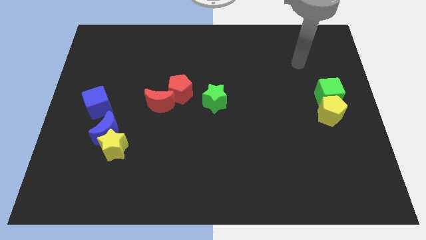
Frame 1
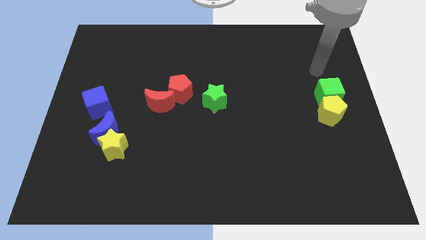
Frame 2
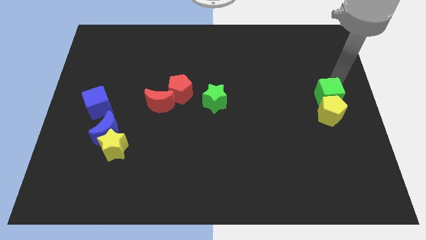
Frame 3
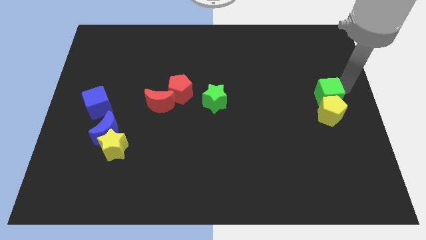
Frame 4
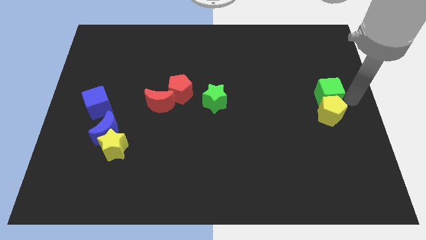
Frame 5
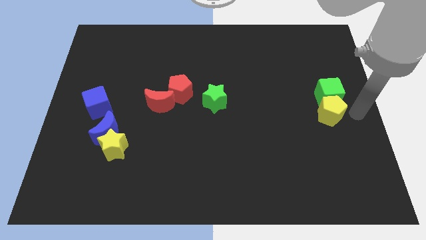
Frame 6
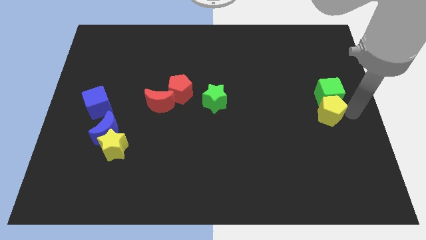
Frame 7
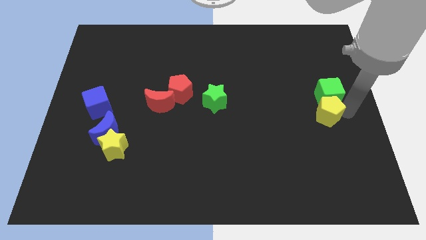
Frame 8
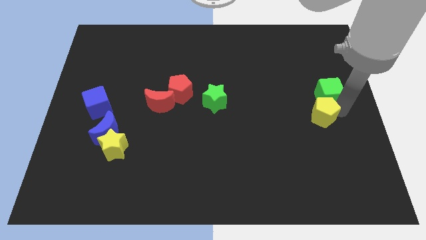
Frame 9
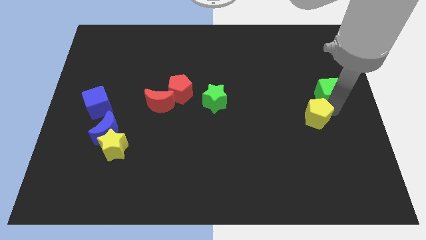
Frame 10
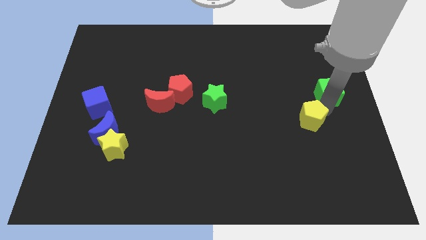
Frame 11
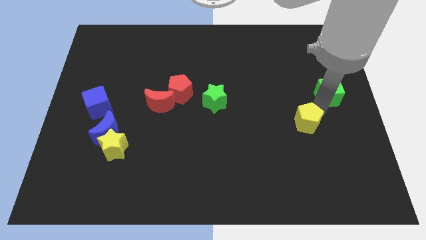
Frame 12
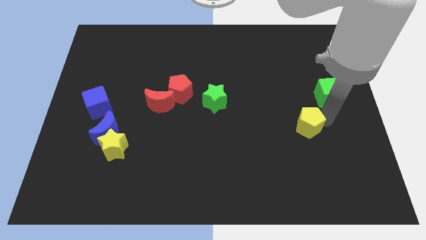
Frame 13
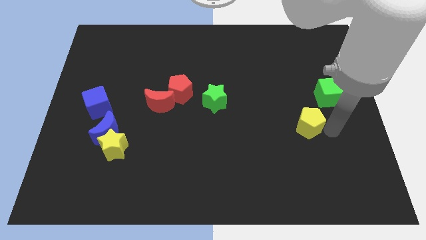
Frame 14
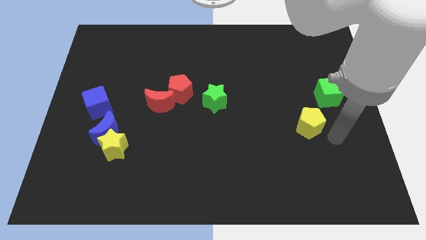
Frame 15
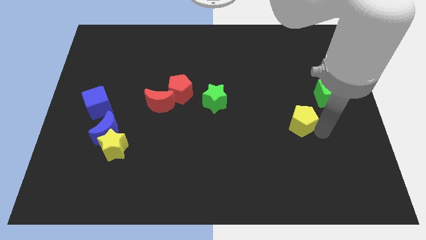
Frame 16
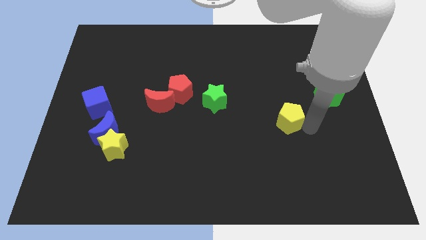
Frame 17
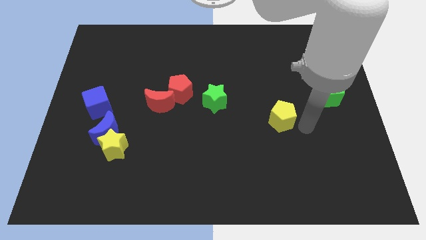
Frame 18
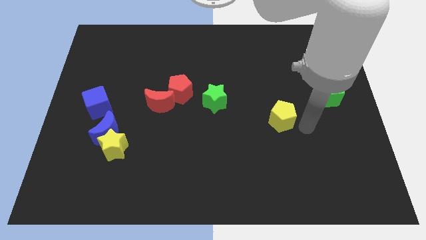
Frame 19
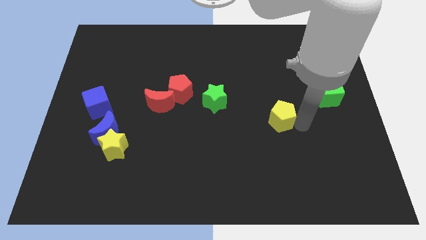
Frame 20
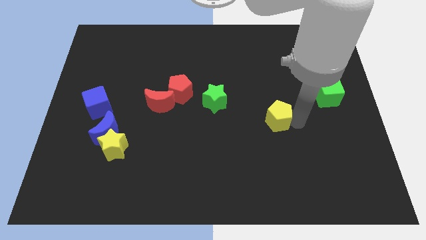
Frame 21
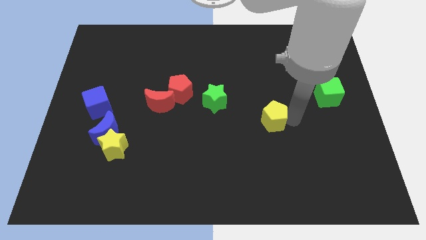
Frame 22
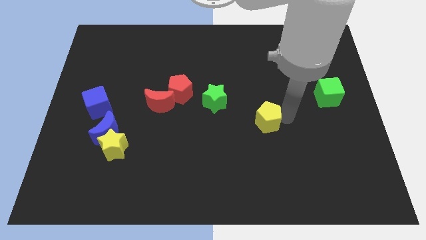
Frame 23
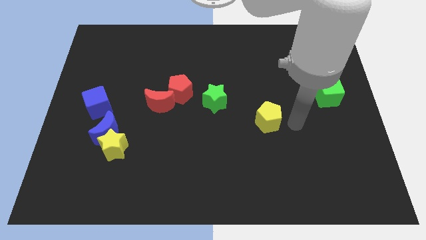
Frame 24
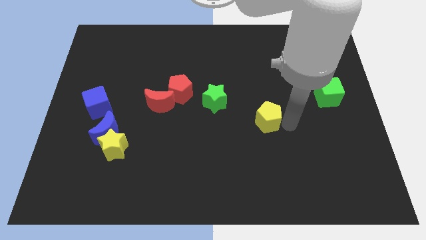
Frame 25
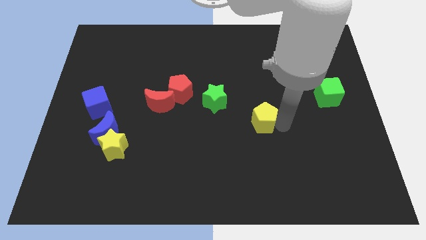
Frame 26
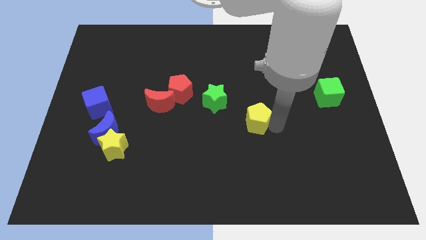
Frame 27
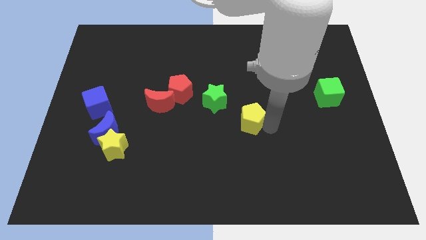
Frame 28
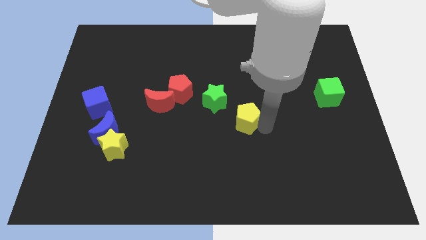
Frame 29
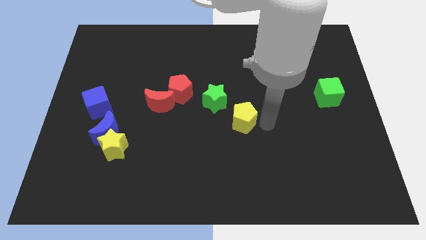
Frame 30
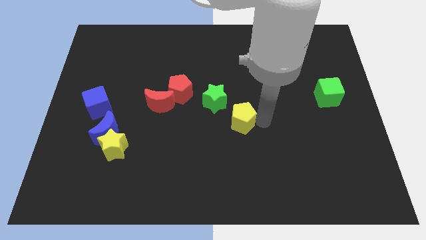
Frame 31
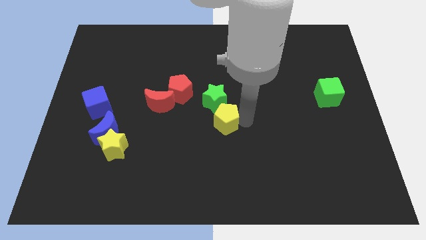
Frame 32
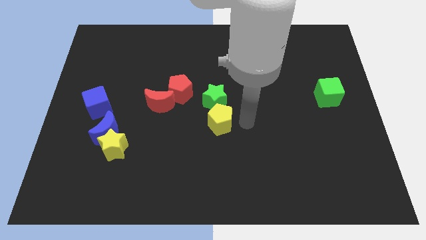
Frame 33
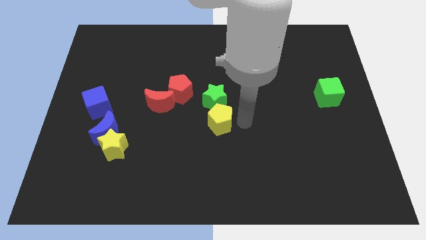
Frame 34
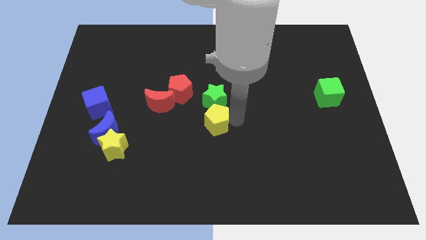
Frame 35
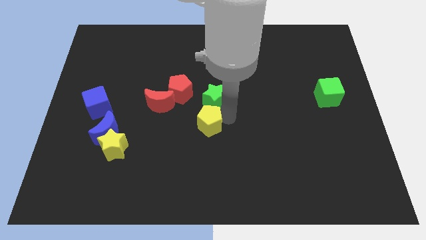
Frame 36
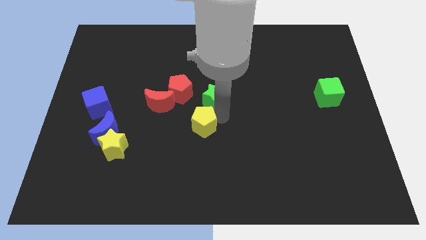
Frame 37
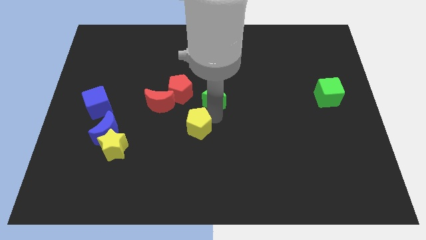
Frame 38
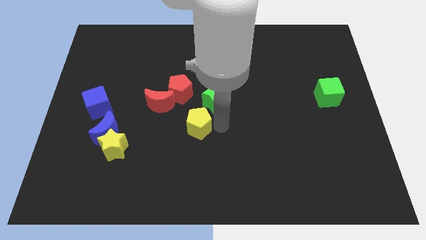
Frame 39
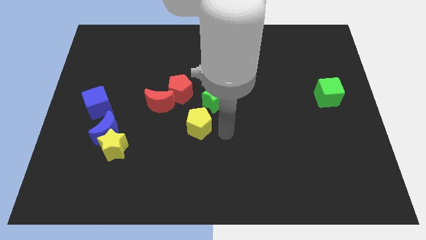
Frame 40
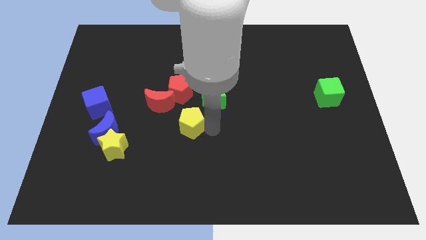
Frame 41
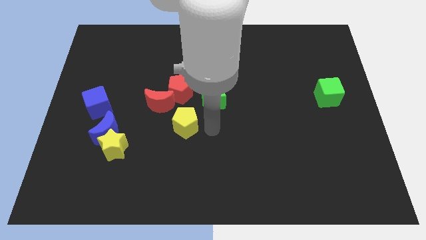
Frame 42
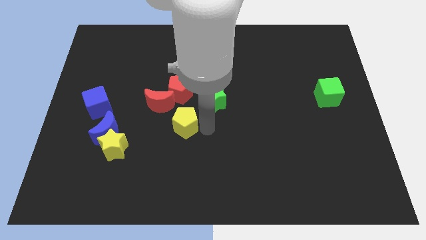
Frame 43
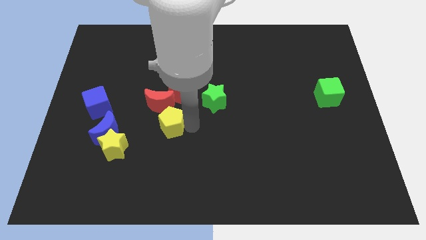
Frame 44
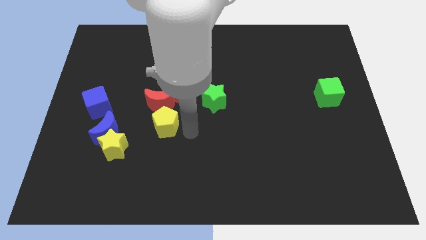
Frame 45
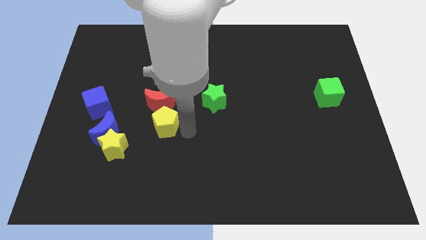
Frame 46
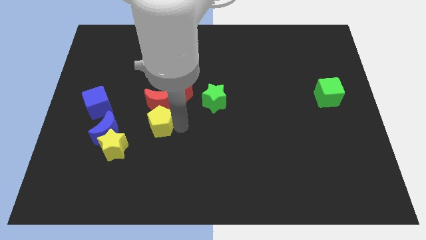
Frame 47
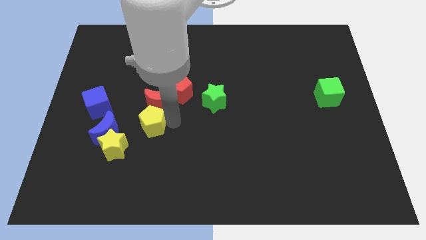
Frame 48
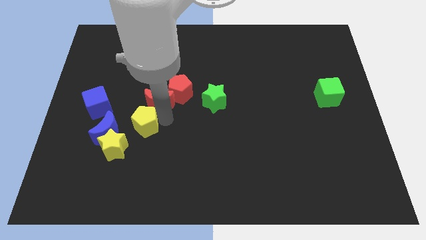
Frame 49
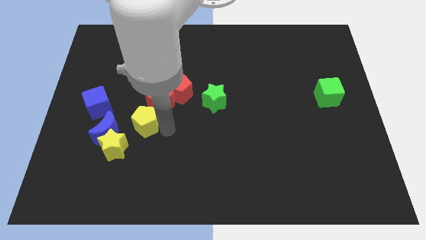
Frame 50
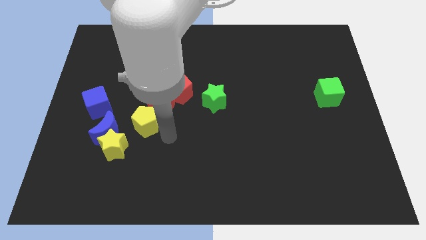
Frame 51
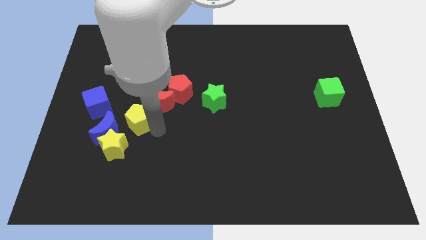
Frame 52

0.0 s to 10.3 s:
push the yellow pentagon to the top of the yellow star

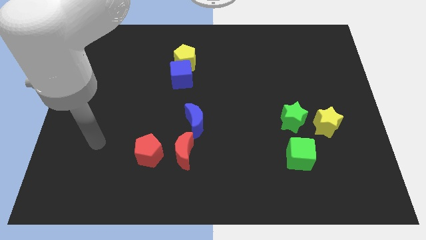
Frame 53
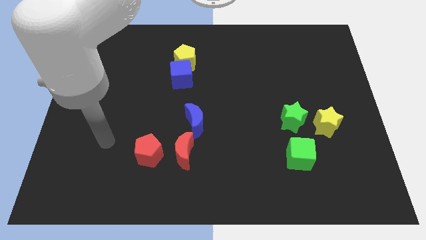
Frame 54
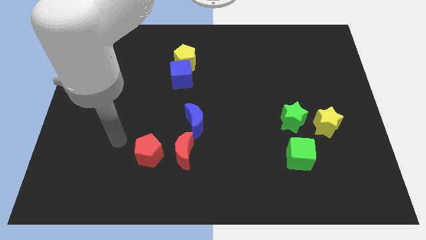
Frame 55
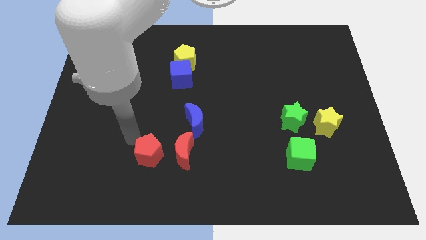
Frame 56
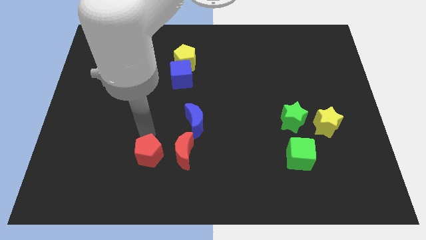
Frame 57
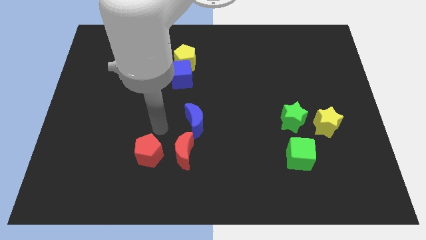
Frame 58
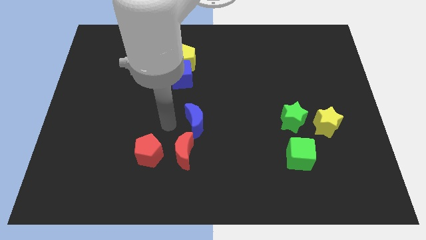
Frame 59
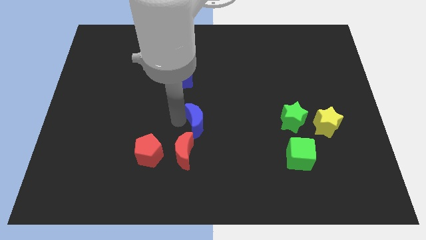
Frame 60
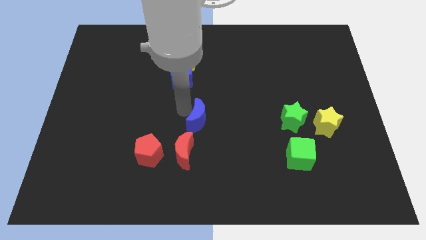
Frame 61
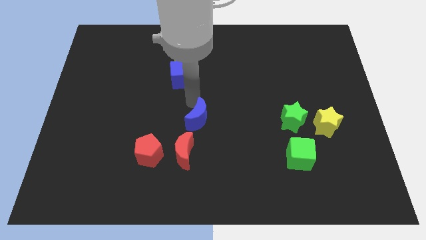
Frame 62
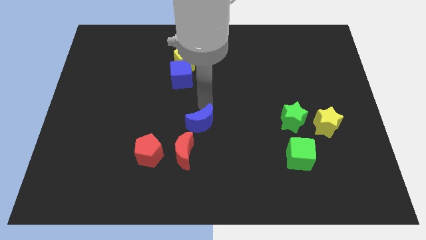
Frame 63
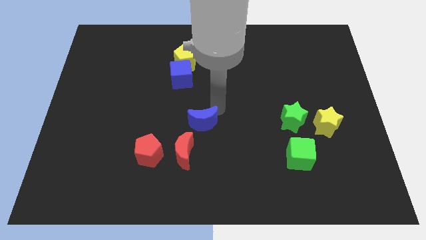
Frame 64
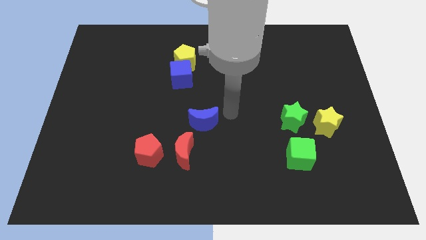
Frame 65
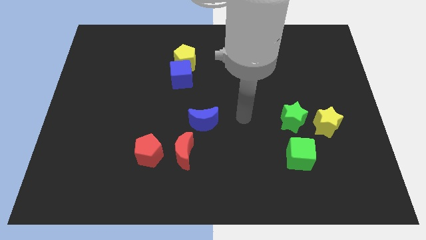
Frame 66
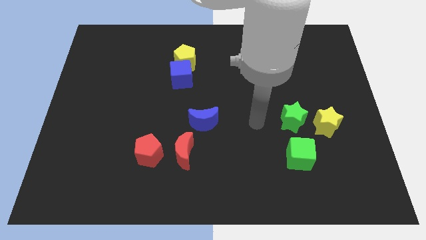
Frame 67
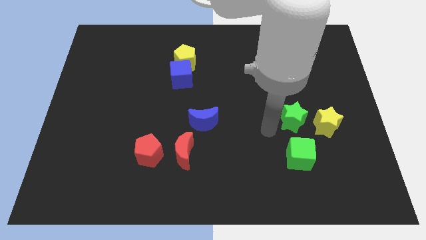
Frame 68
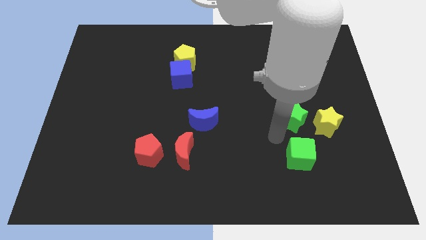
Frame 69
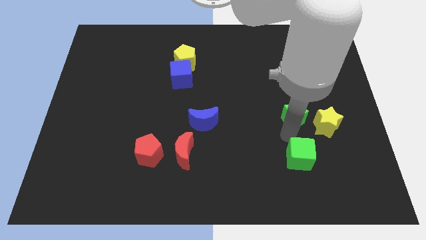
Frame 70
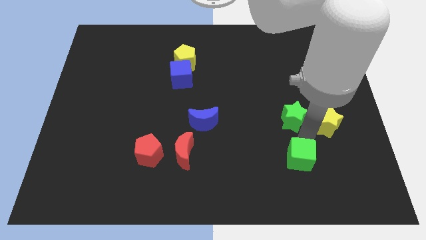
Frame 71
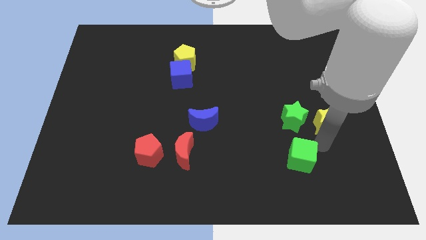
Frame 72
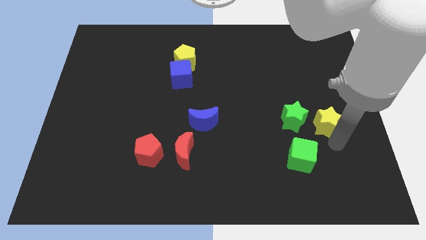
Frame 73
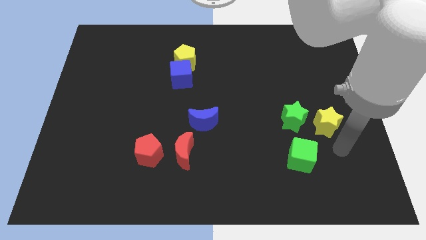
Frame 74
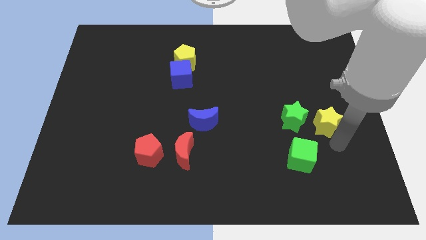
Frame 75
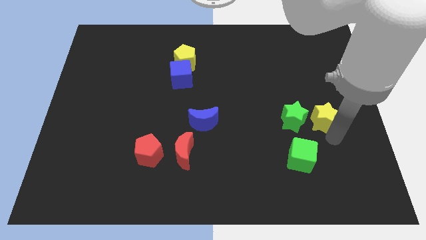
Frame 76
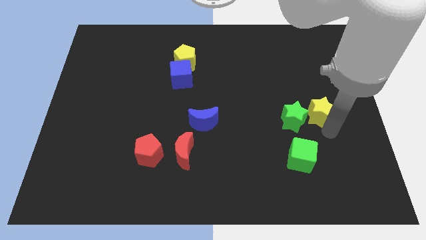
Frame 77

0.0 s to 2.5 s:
push the yellow star to the top right of the green star

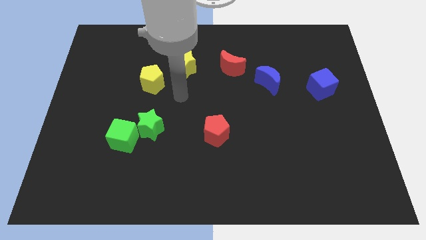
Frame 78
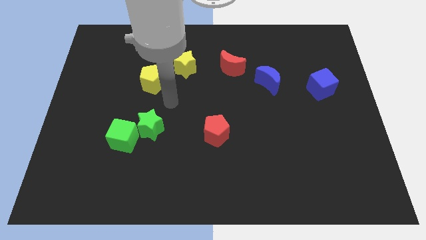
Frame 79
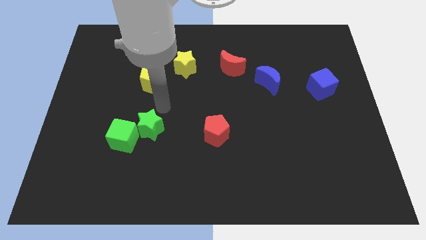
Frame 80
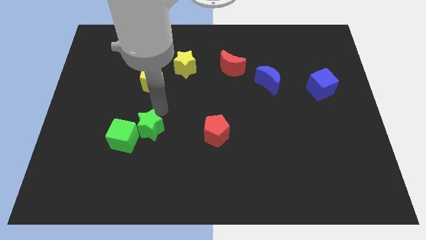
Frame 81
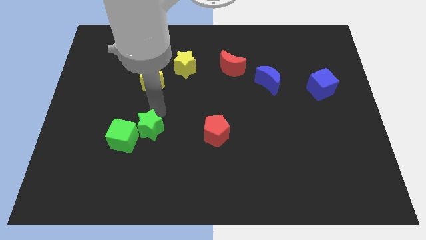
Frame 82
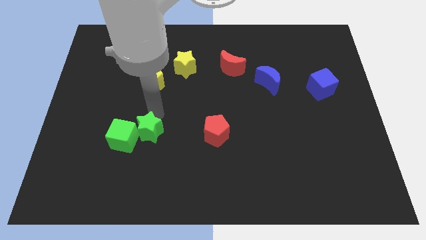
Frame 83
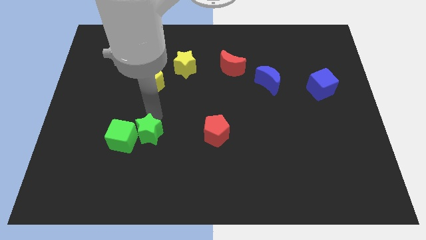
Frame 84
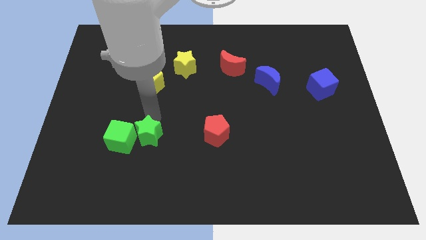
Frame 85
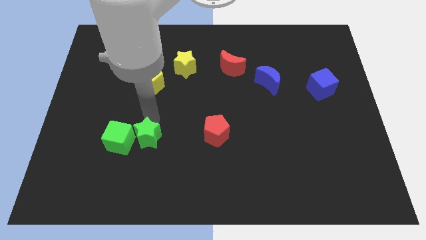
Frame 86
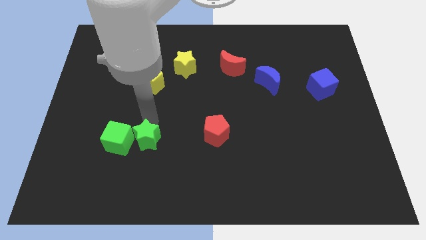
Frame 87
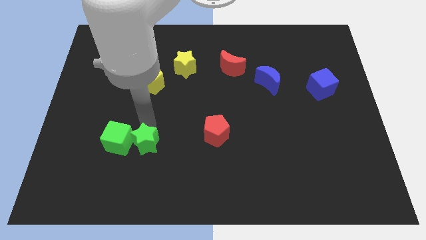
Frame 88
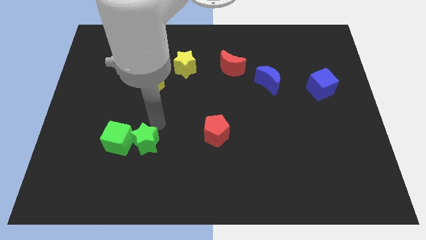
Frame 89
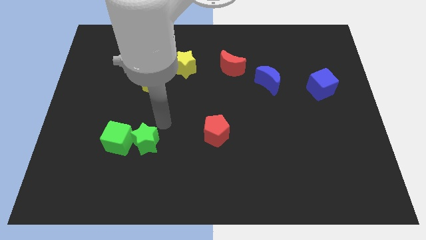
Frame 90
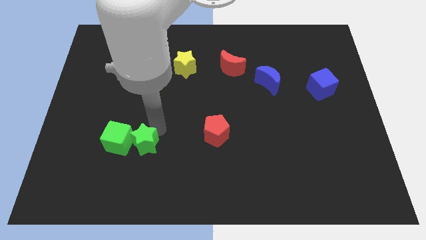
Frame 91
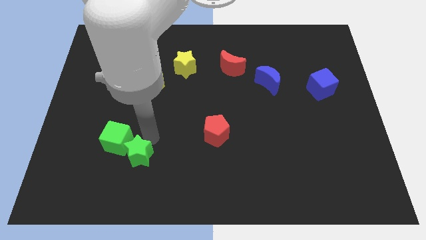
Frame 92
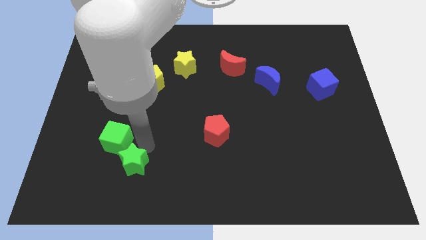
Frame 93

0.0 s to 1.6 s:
push the green star to the bottom side of the green cube
